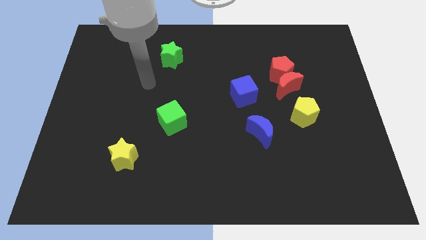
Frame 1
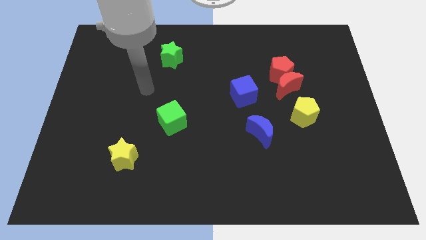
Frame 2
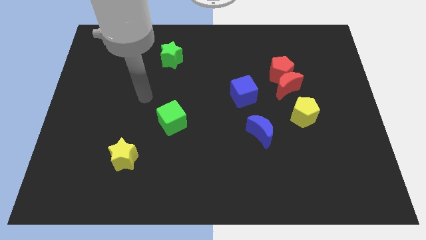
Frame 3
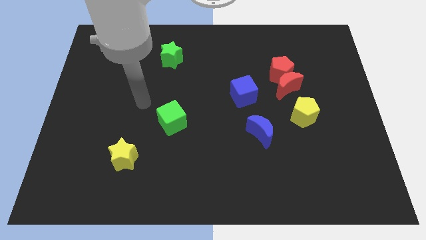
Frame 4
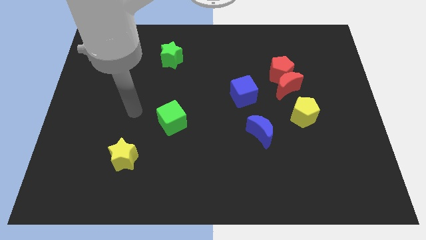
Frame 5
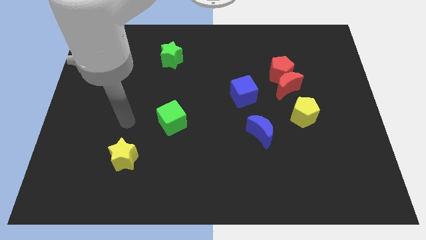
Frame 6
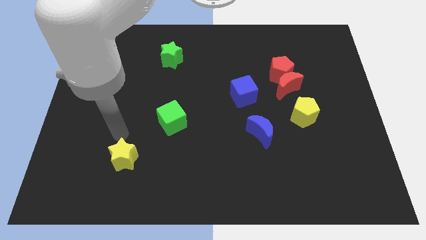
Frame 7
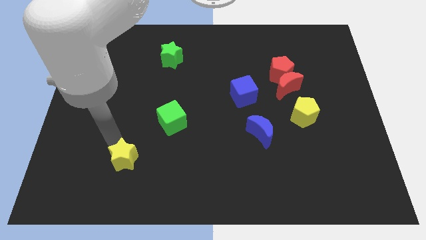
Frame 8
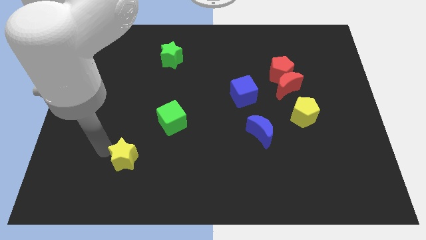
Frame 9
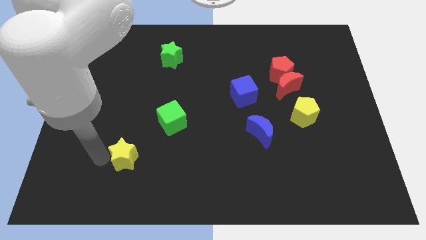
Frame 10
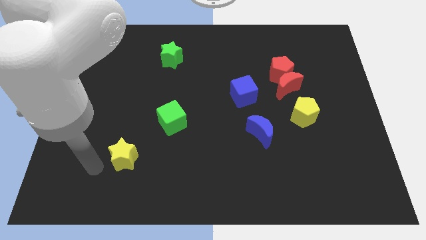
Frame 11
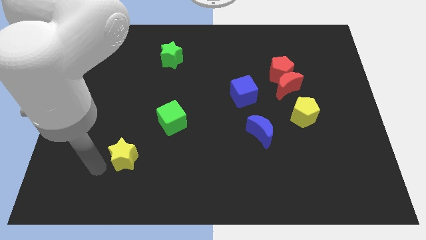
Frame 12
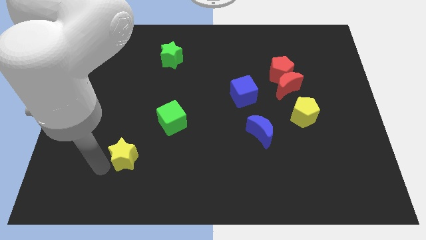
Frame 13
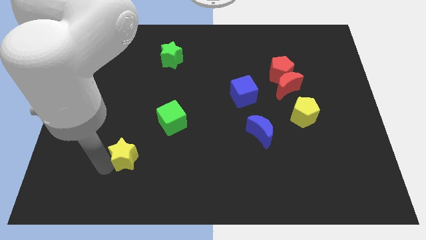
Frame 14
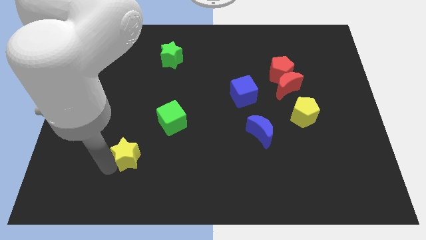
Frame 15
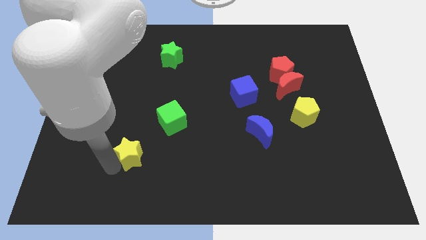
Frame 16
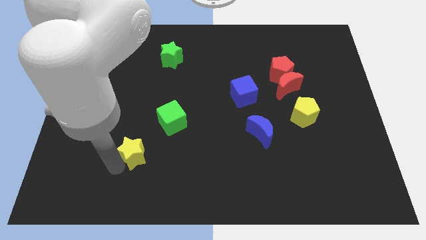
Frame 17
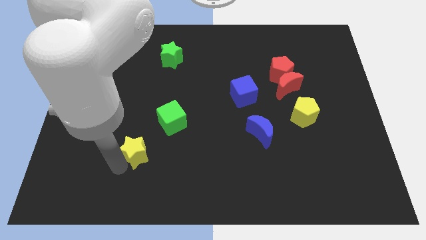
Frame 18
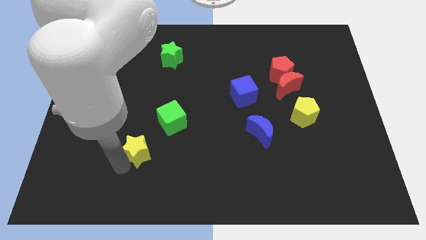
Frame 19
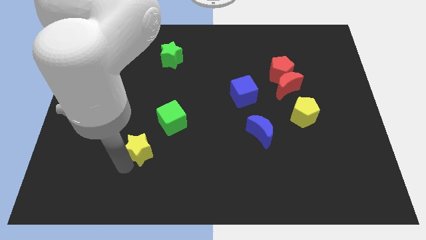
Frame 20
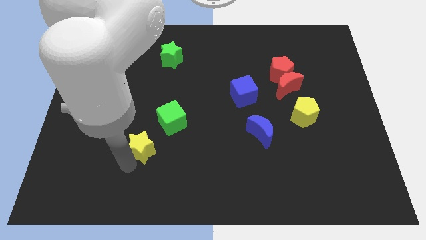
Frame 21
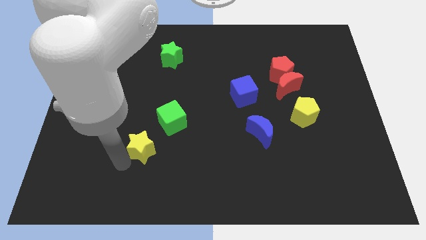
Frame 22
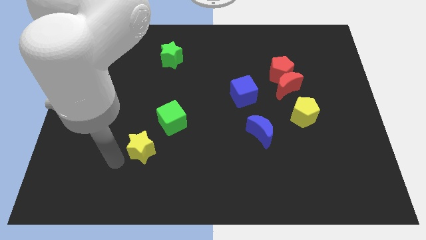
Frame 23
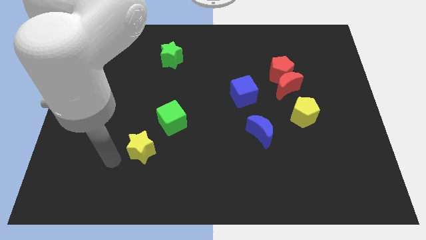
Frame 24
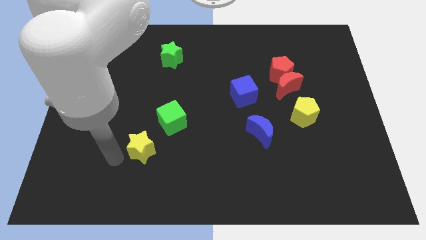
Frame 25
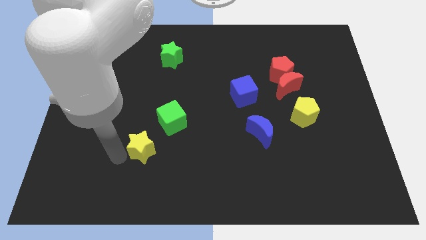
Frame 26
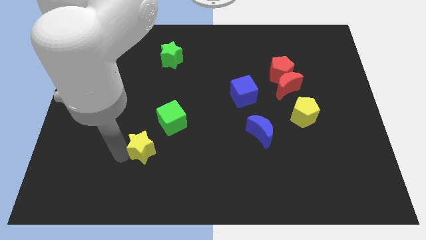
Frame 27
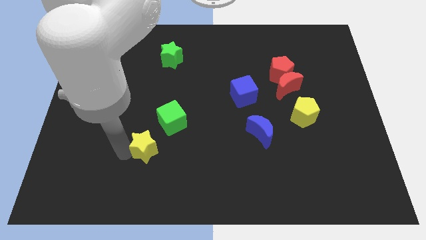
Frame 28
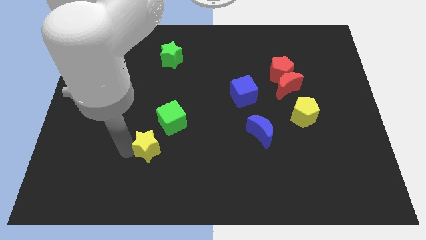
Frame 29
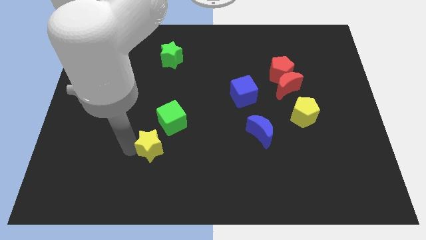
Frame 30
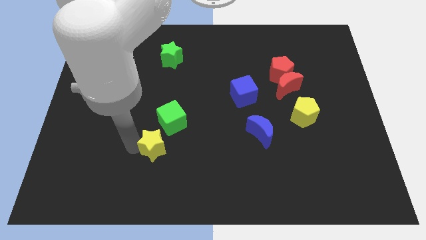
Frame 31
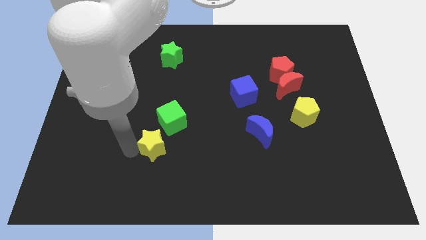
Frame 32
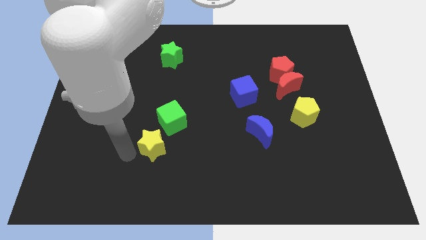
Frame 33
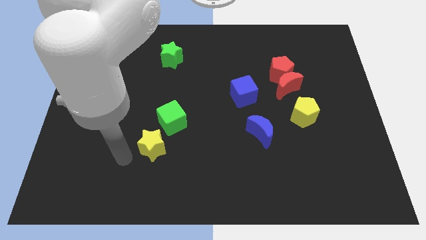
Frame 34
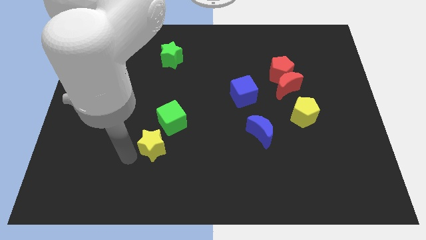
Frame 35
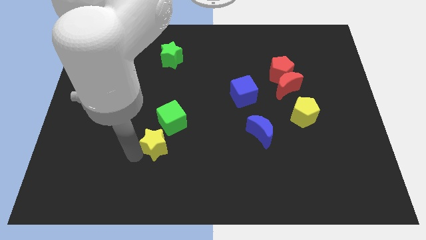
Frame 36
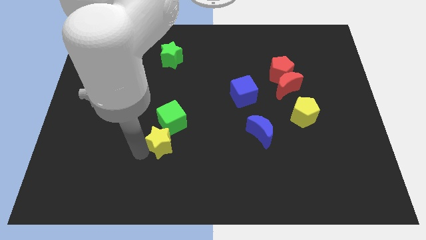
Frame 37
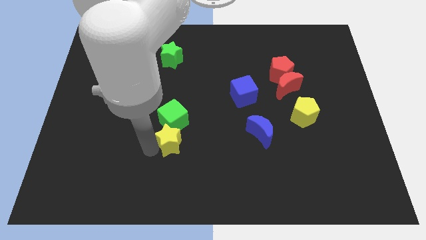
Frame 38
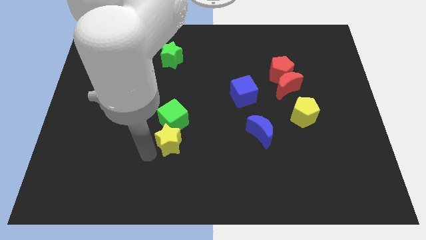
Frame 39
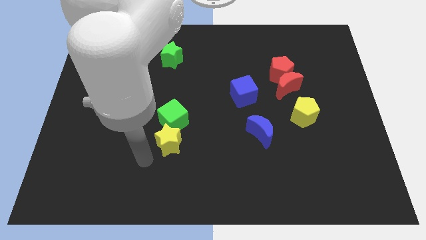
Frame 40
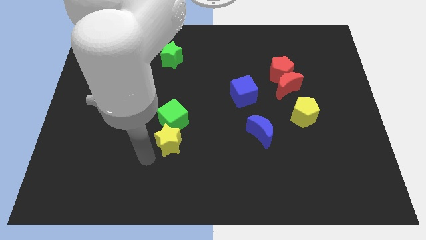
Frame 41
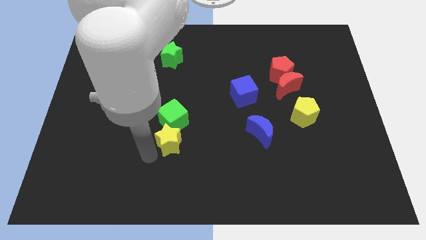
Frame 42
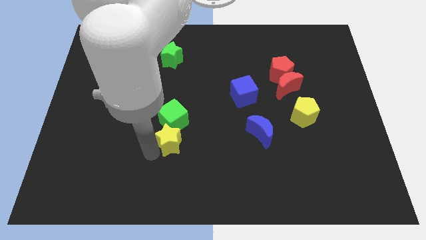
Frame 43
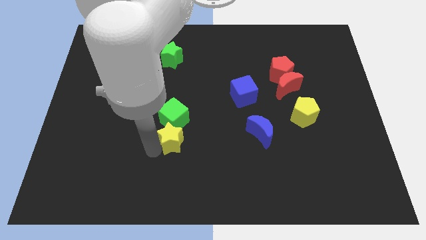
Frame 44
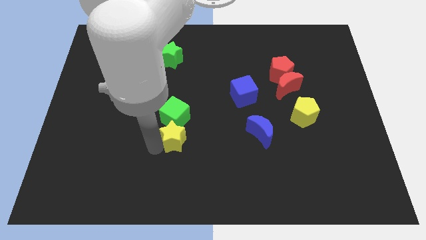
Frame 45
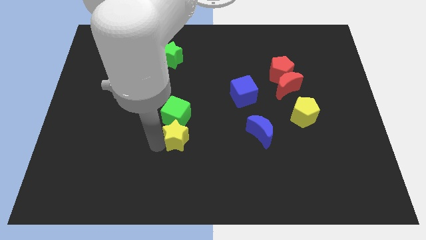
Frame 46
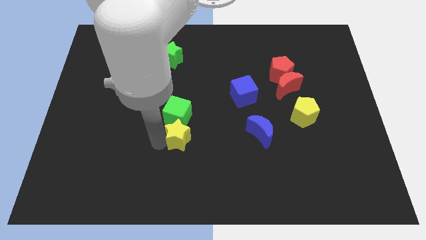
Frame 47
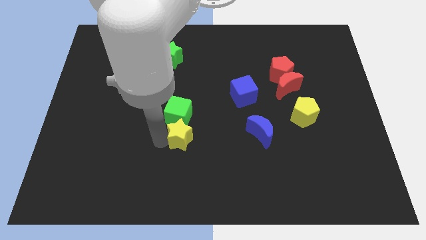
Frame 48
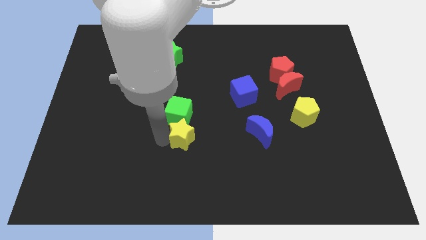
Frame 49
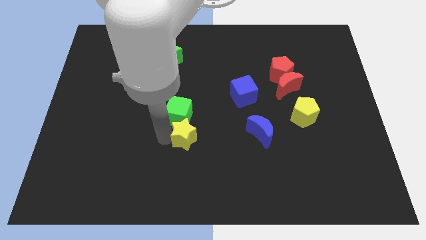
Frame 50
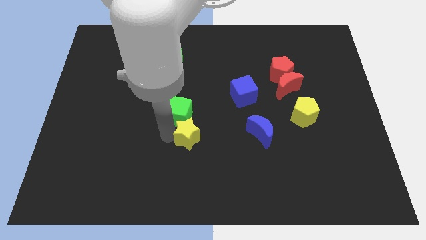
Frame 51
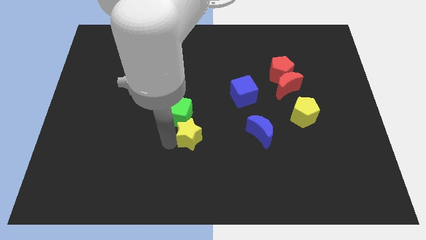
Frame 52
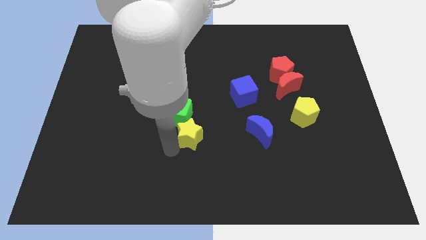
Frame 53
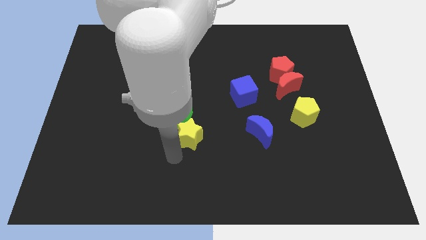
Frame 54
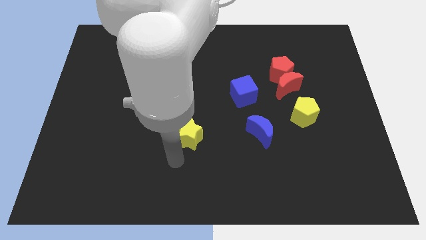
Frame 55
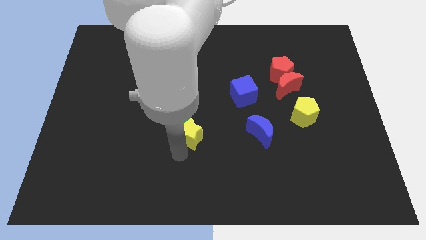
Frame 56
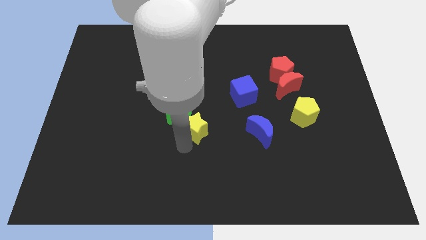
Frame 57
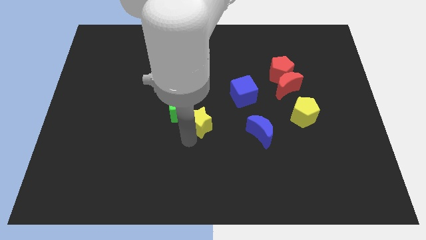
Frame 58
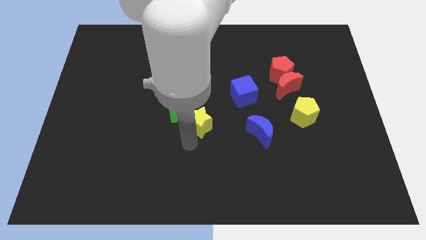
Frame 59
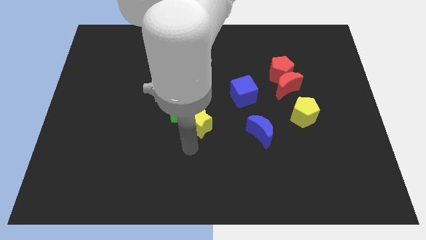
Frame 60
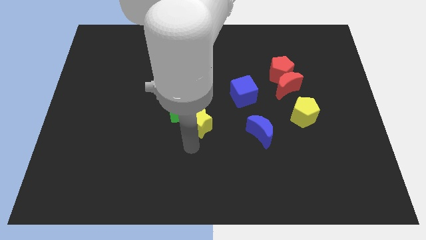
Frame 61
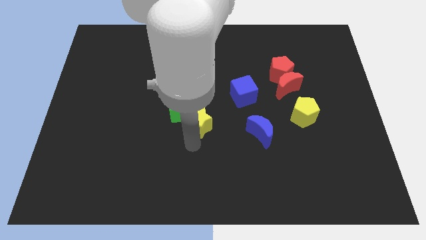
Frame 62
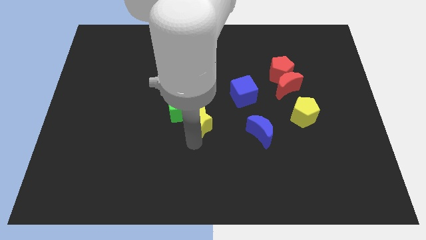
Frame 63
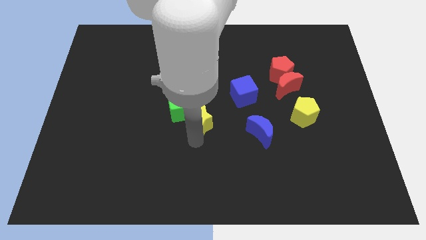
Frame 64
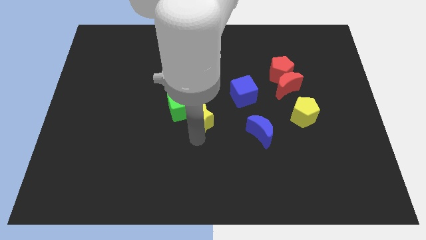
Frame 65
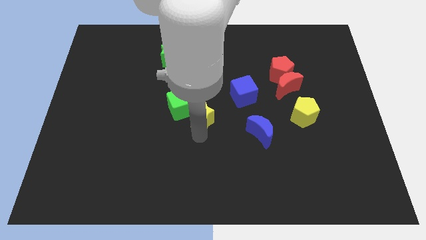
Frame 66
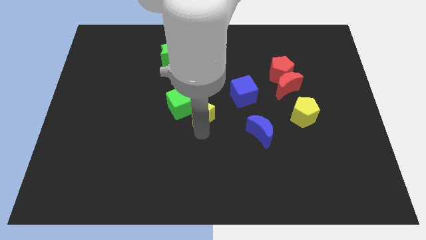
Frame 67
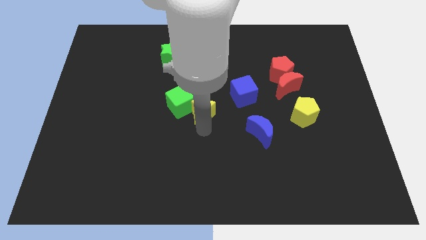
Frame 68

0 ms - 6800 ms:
push the yellow star upwards and to the right

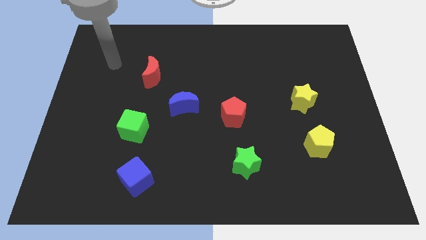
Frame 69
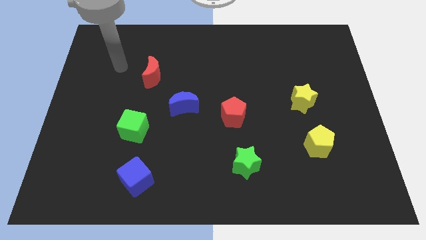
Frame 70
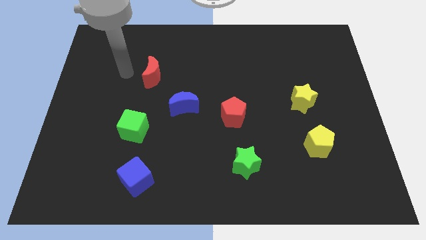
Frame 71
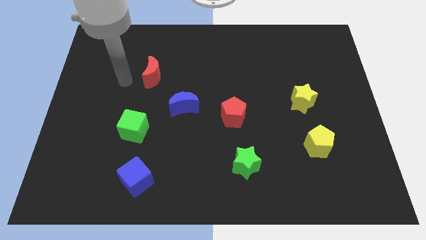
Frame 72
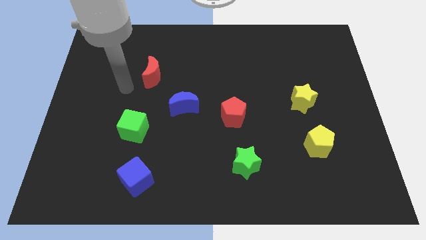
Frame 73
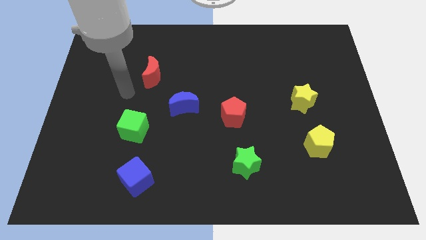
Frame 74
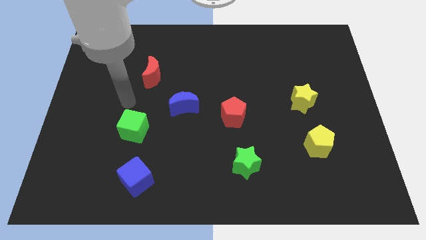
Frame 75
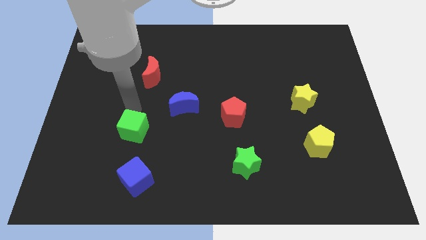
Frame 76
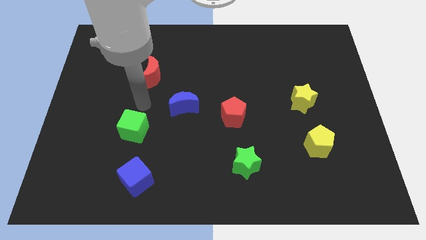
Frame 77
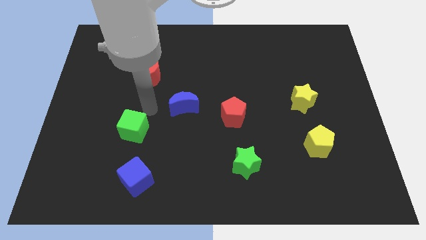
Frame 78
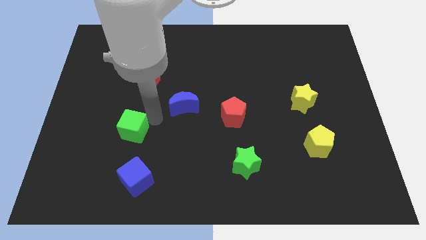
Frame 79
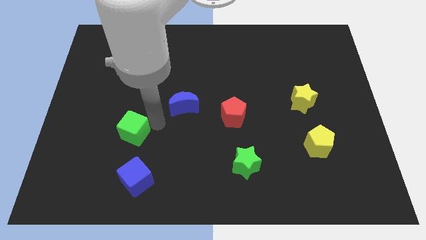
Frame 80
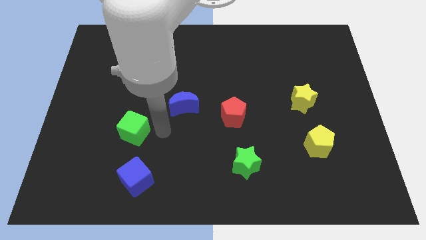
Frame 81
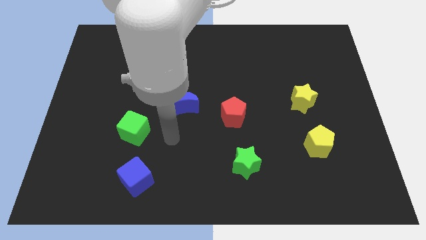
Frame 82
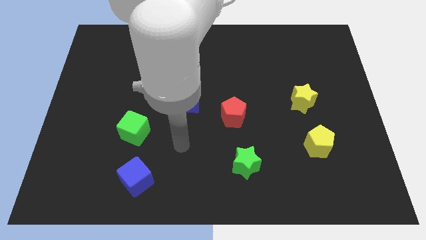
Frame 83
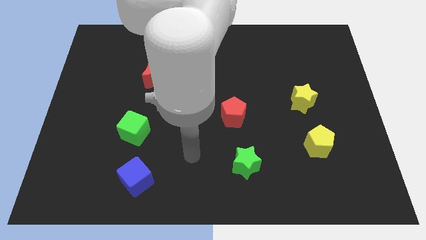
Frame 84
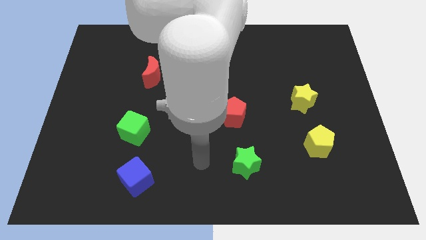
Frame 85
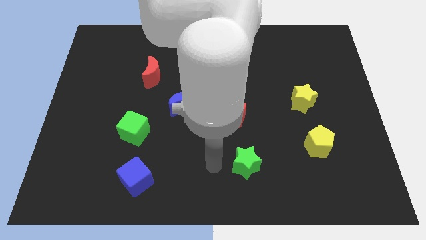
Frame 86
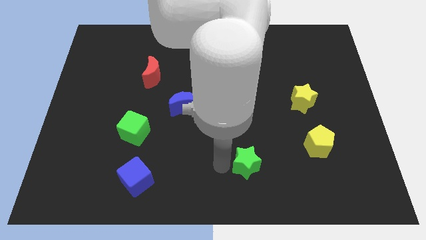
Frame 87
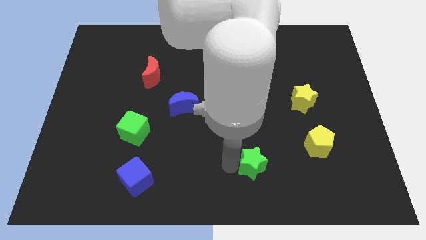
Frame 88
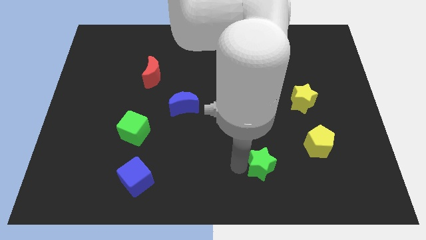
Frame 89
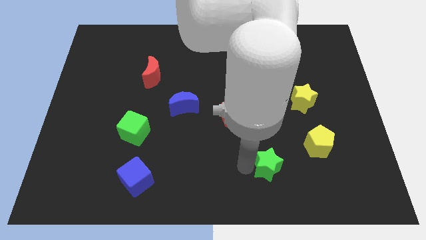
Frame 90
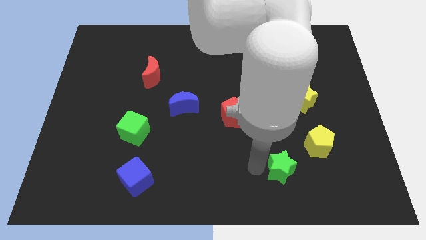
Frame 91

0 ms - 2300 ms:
slide the green star a little bit right
